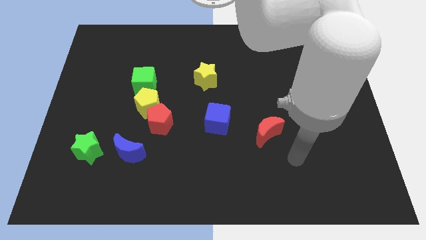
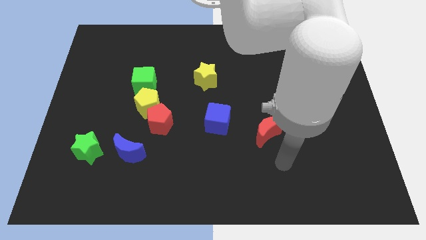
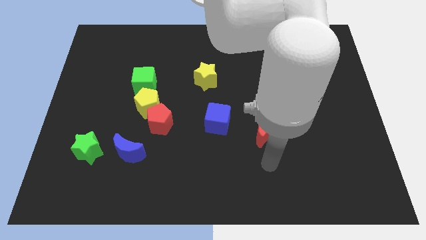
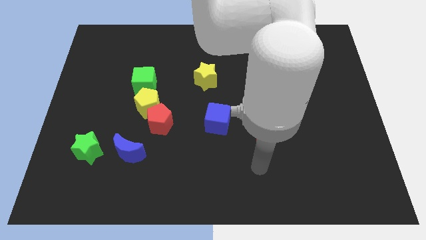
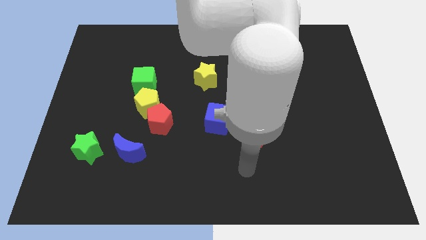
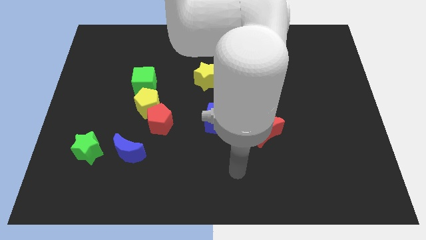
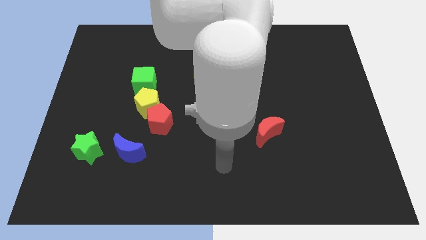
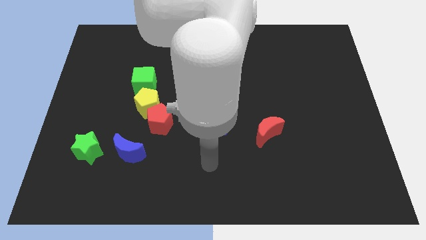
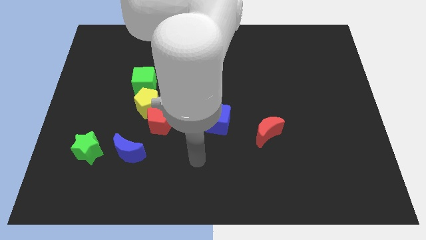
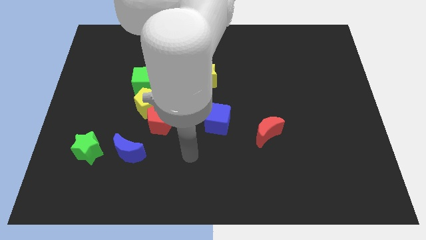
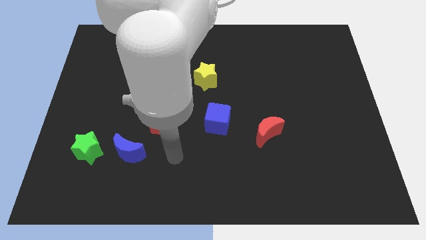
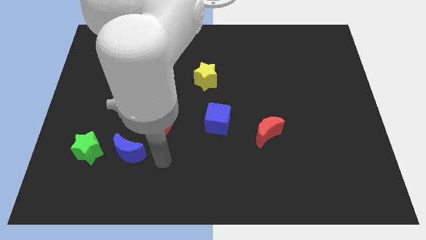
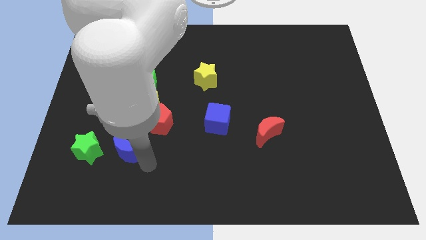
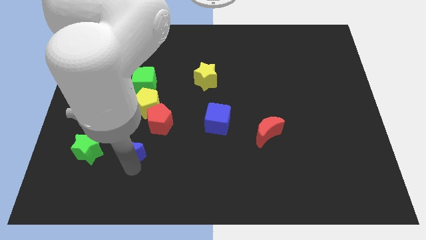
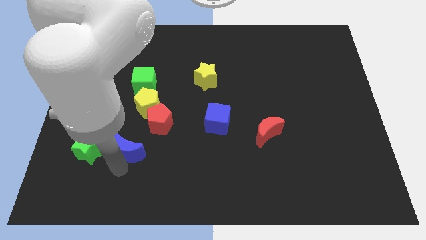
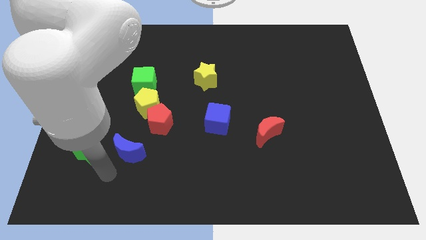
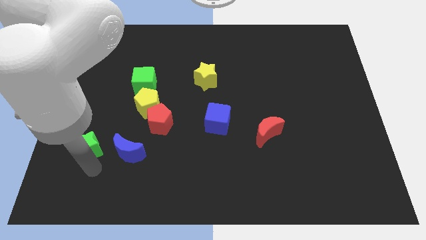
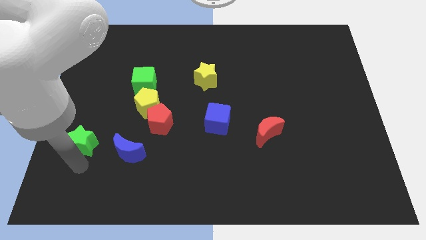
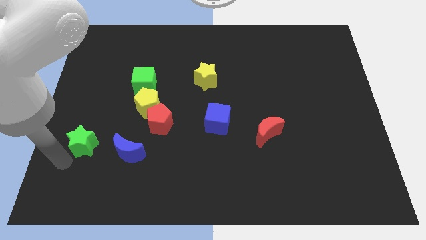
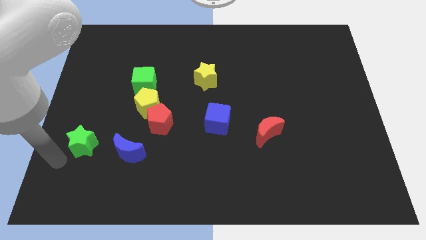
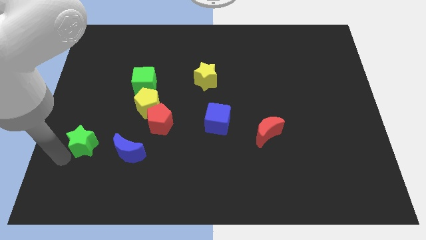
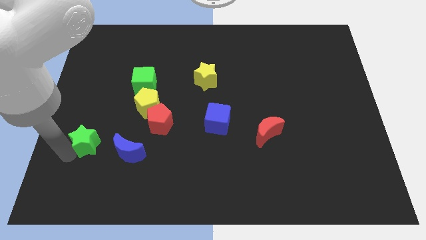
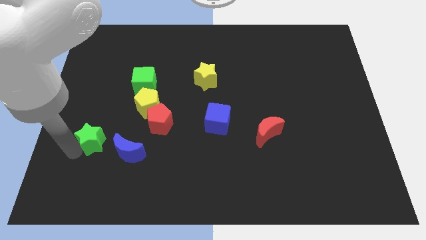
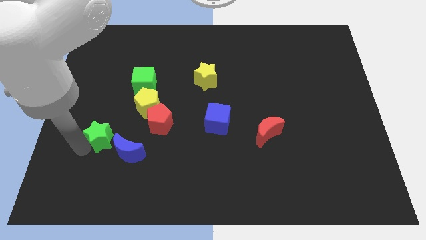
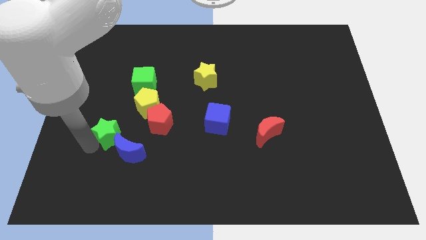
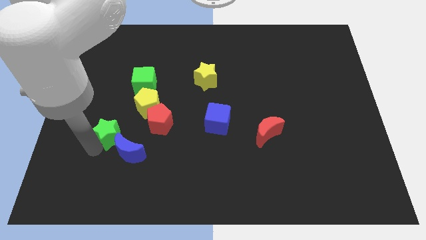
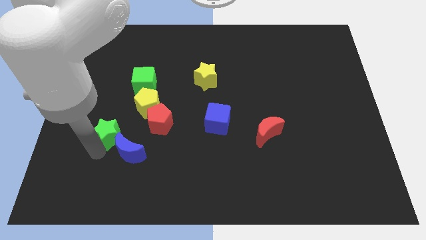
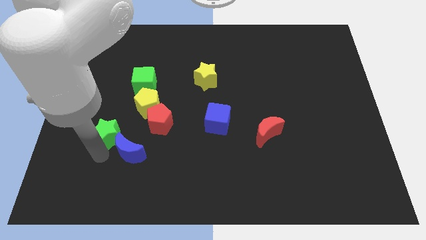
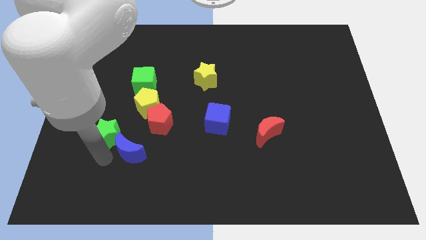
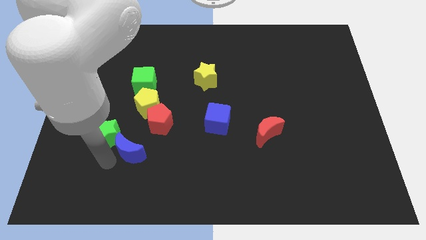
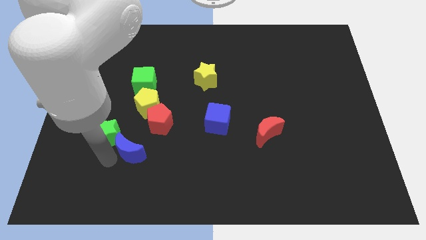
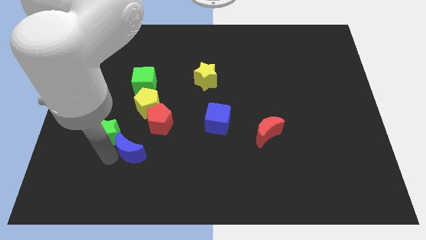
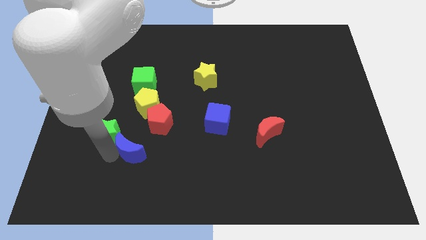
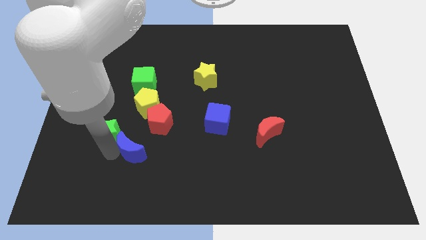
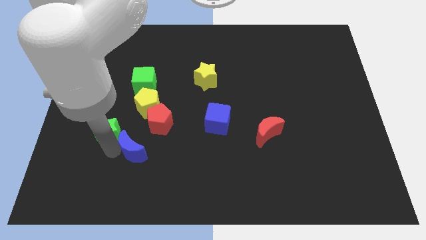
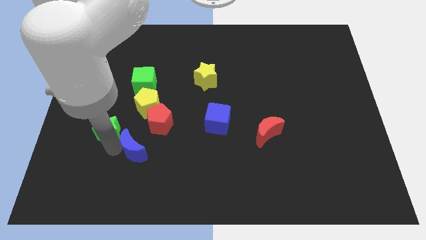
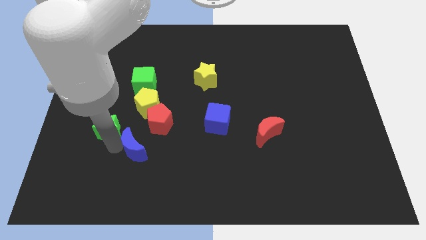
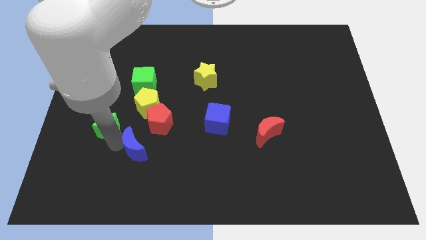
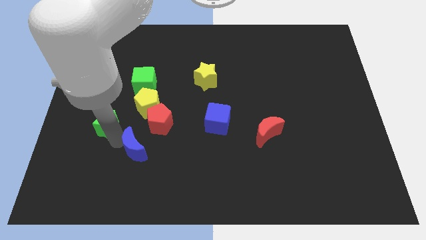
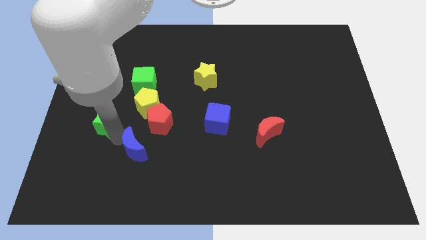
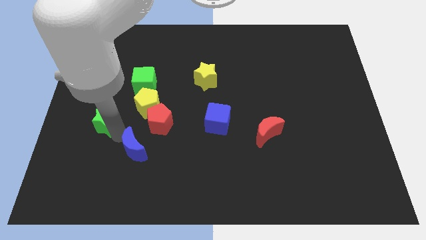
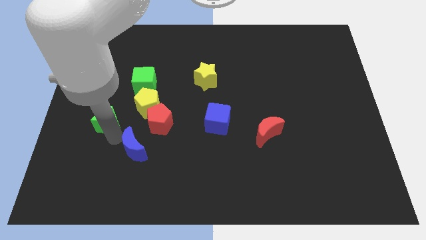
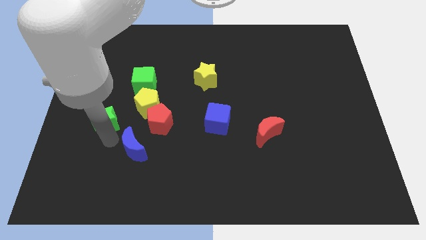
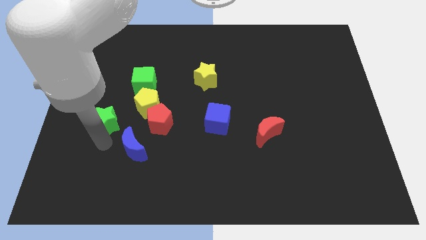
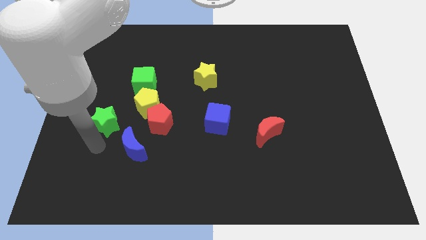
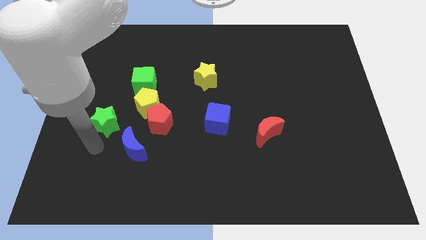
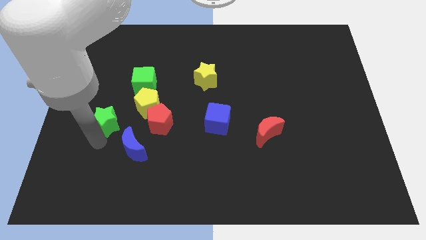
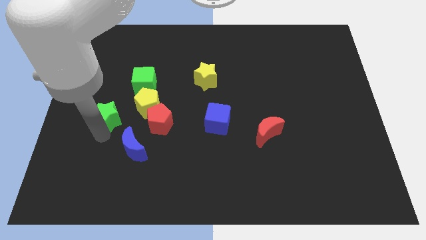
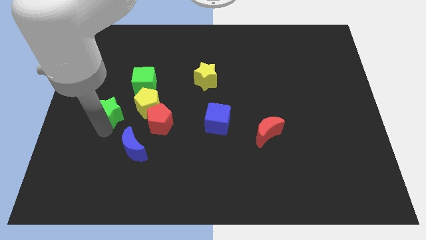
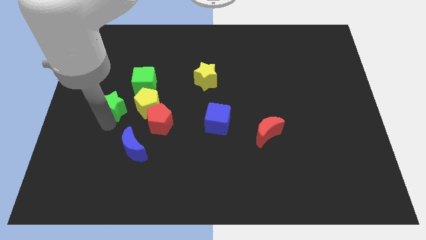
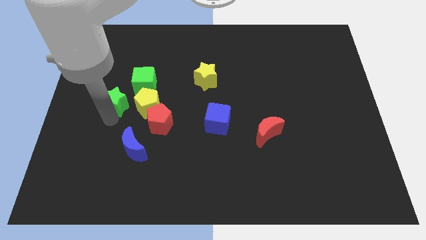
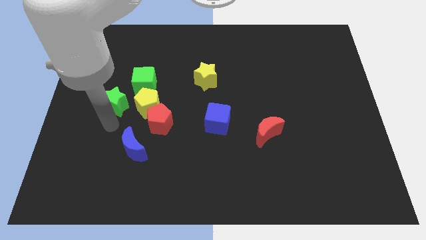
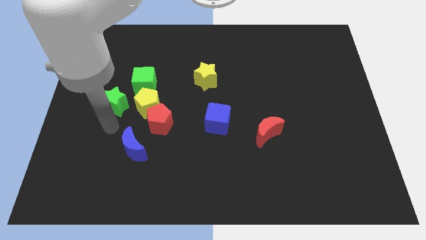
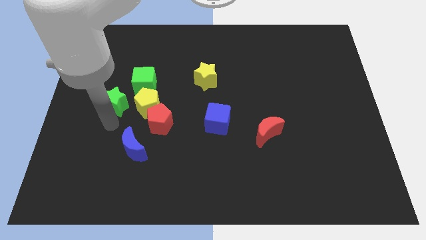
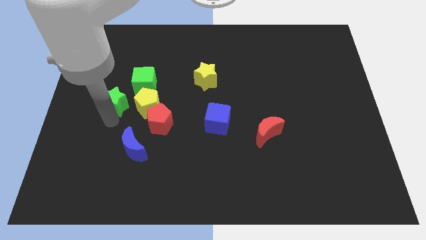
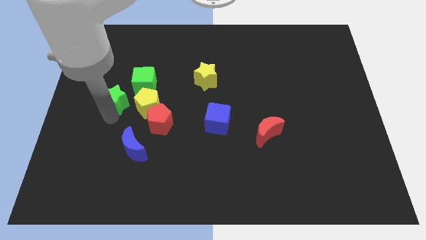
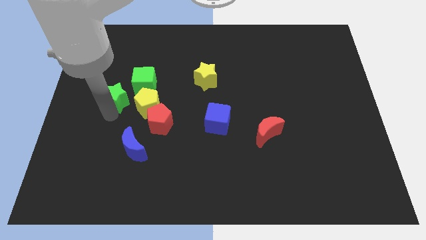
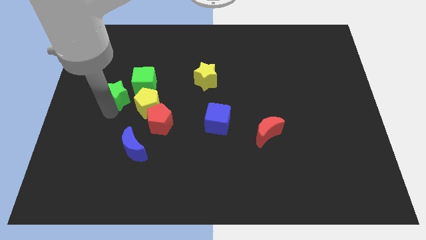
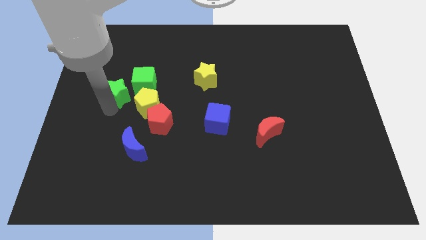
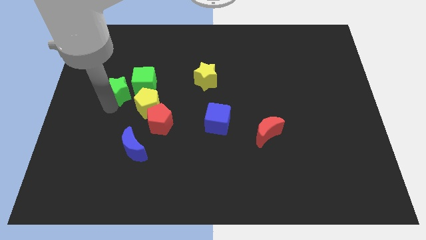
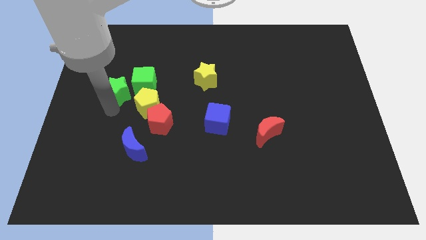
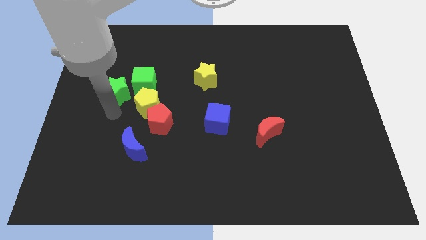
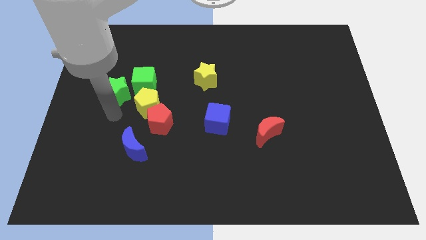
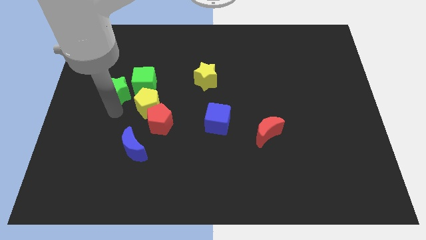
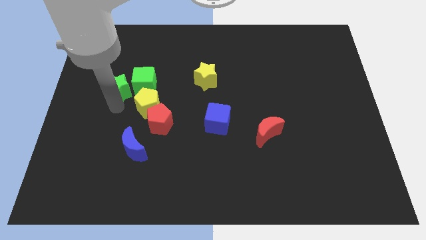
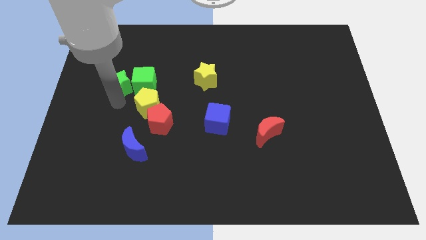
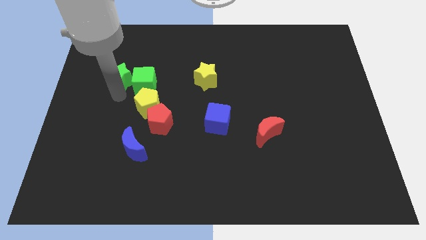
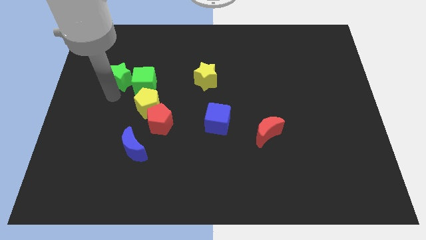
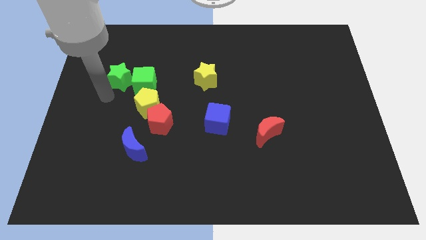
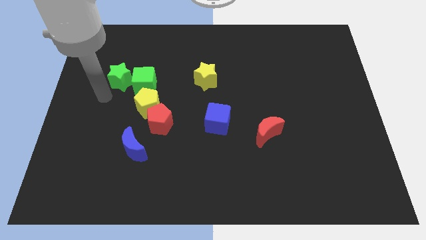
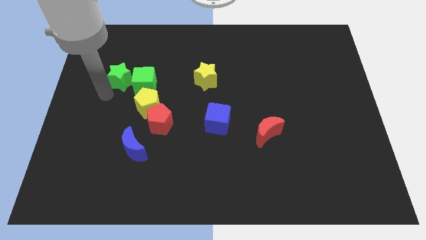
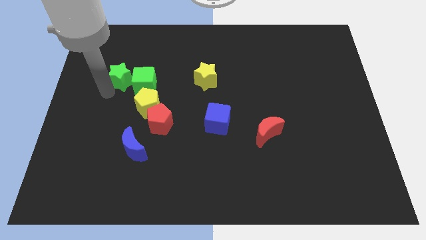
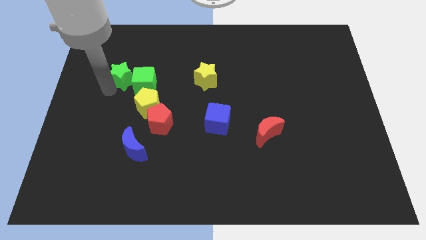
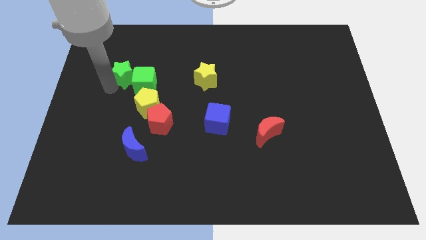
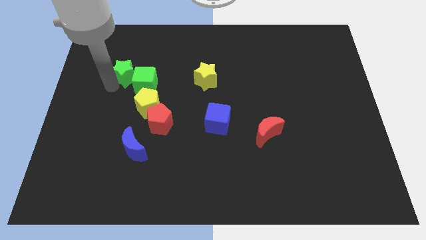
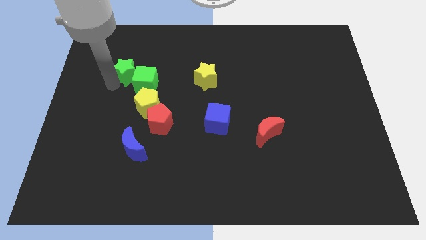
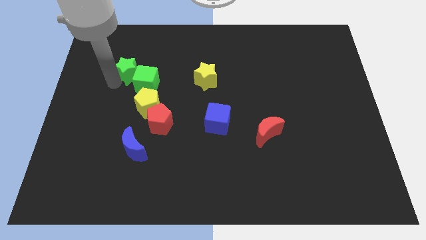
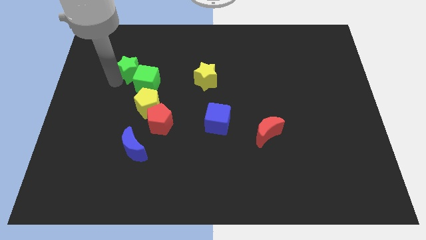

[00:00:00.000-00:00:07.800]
move the green star above the green cube
